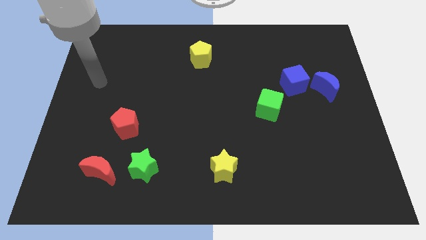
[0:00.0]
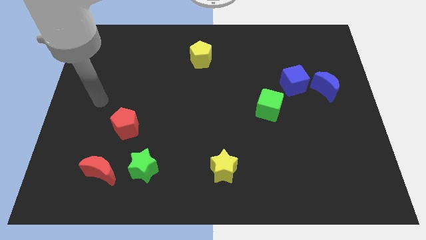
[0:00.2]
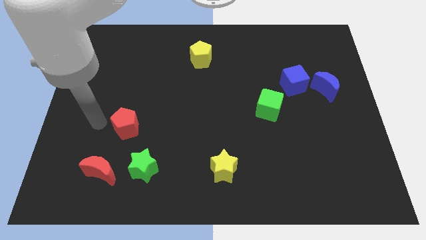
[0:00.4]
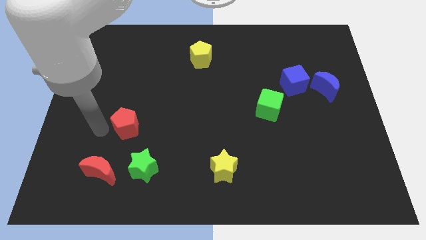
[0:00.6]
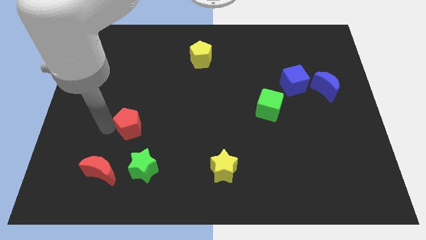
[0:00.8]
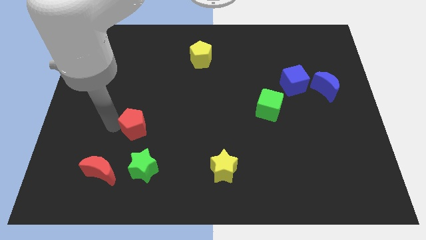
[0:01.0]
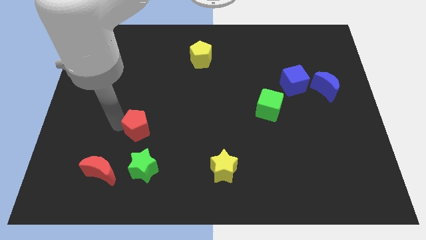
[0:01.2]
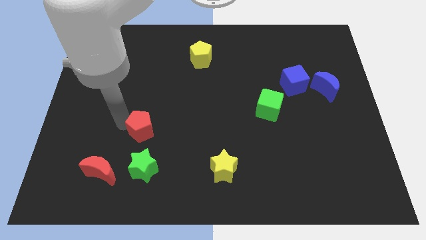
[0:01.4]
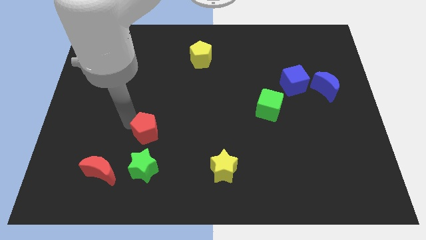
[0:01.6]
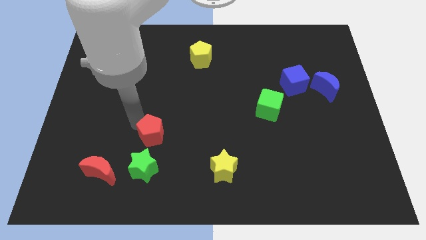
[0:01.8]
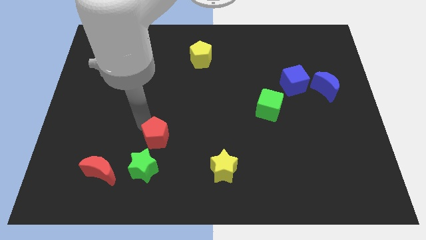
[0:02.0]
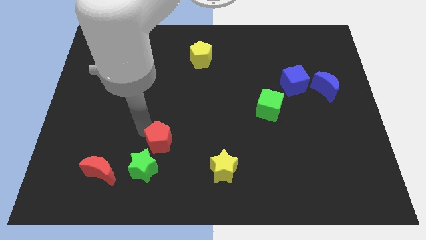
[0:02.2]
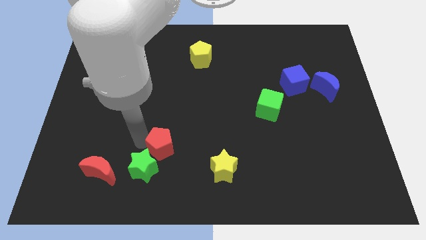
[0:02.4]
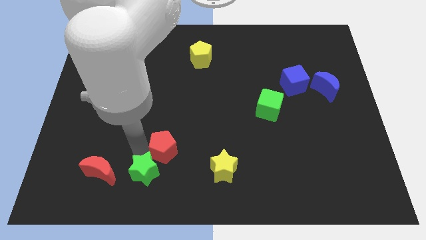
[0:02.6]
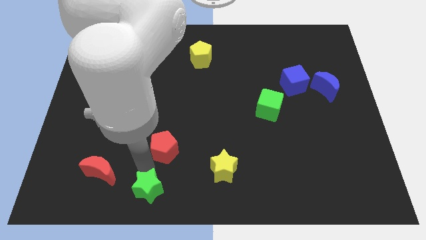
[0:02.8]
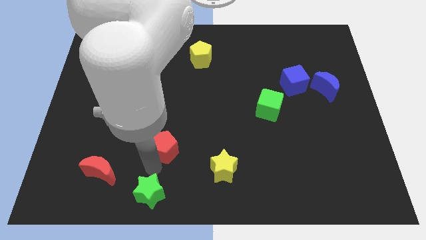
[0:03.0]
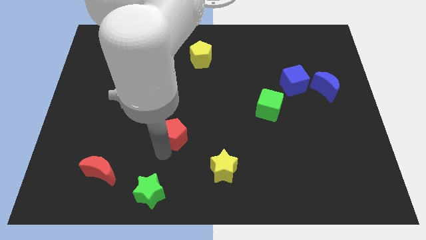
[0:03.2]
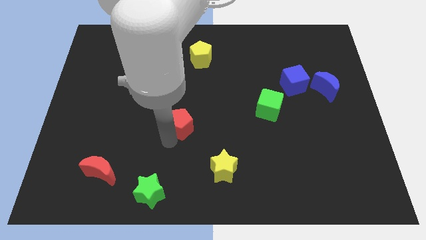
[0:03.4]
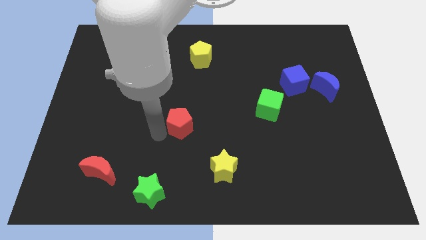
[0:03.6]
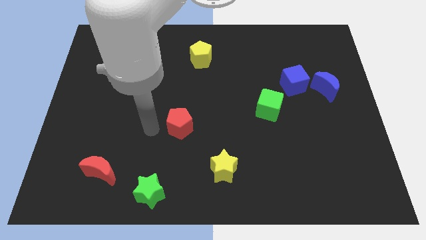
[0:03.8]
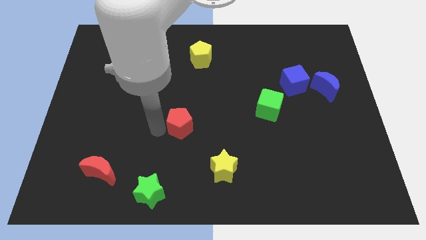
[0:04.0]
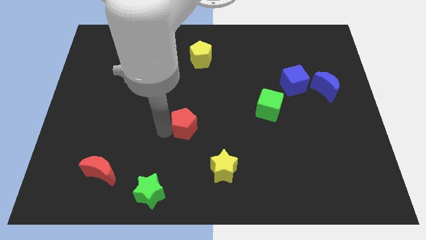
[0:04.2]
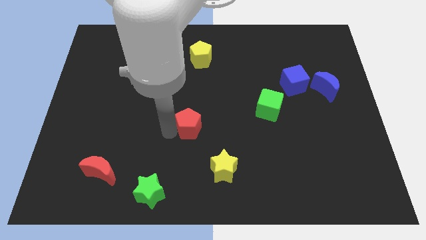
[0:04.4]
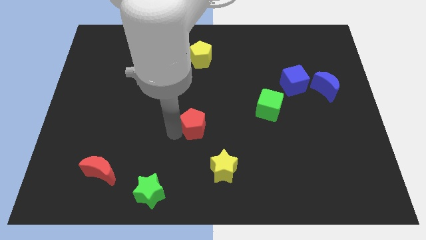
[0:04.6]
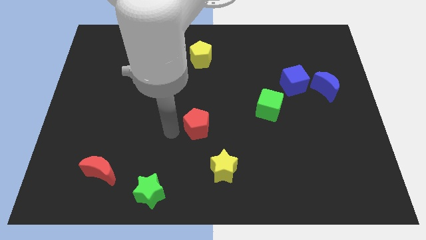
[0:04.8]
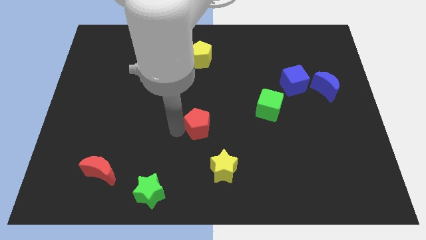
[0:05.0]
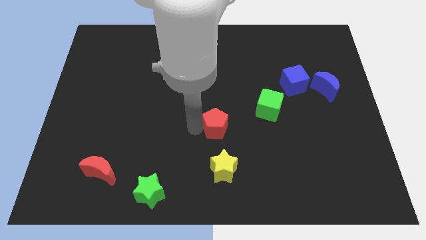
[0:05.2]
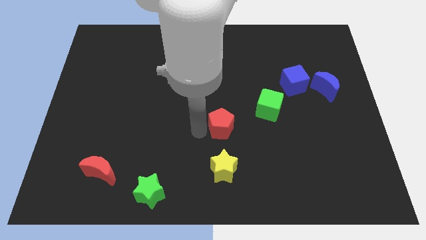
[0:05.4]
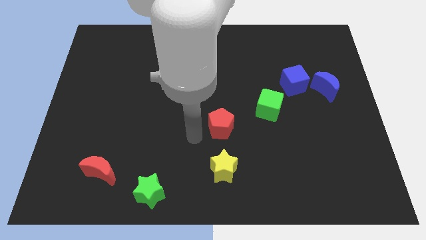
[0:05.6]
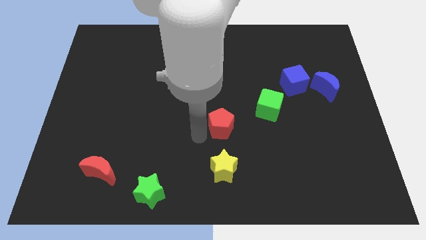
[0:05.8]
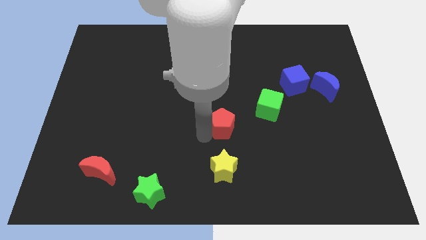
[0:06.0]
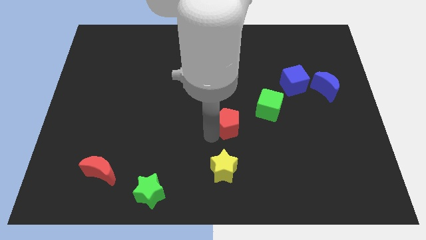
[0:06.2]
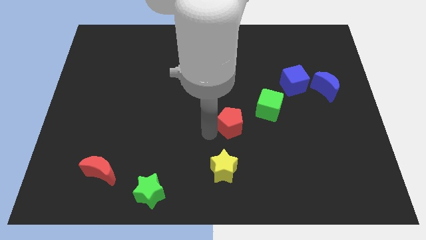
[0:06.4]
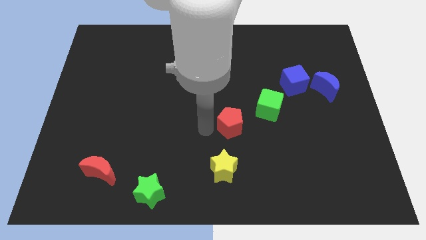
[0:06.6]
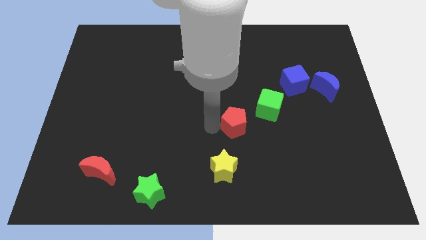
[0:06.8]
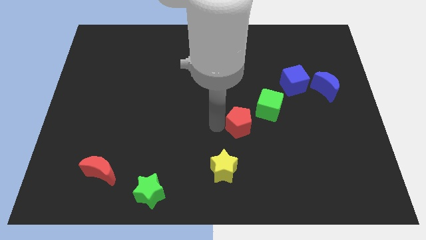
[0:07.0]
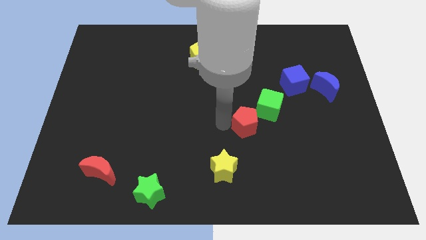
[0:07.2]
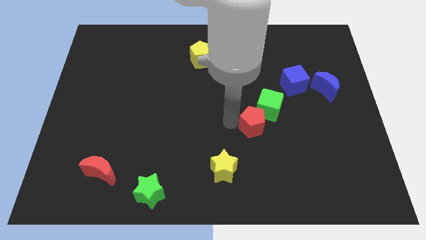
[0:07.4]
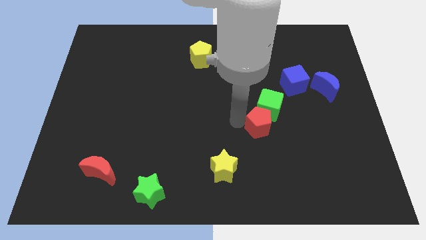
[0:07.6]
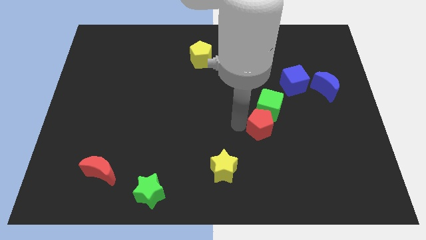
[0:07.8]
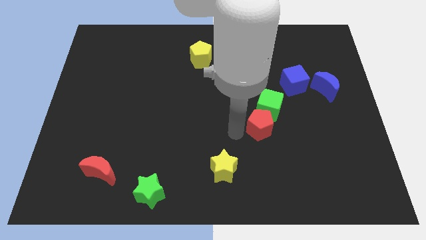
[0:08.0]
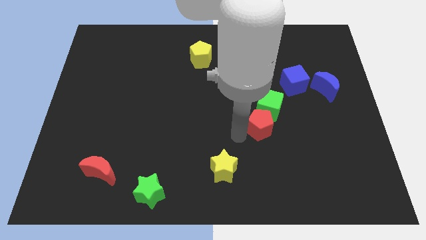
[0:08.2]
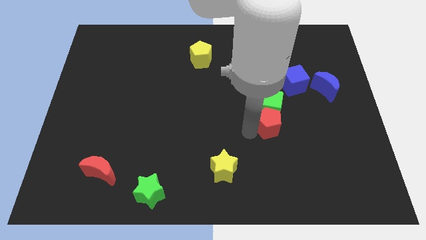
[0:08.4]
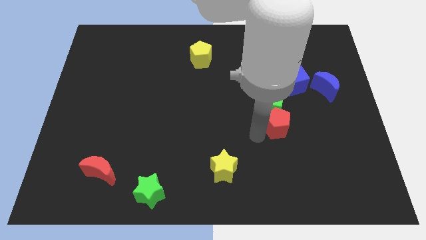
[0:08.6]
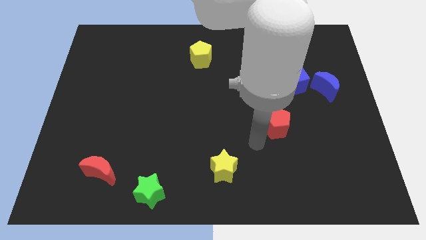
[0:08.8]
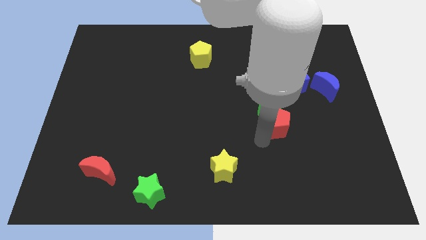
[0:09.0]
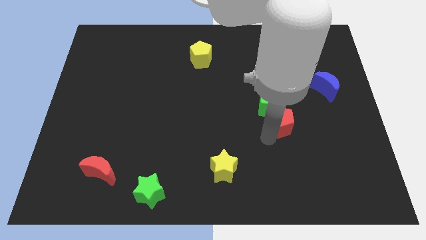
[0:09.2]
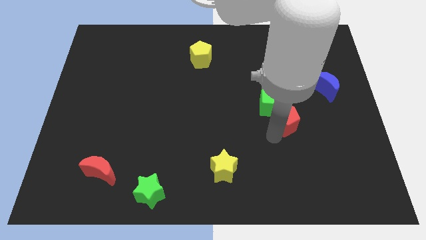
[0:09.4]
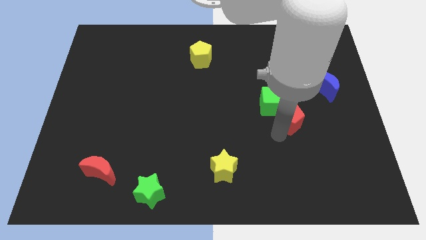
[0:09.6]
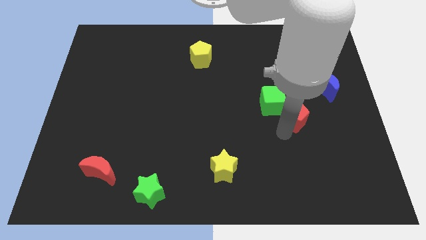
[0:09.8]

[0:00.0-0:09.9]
move the red pentagon diagonally down and to the left of the blue moon

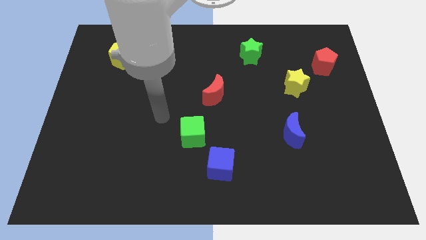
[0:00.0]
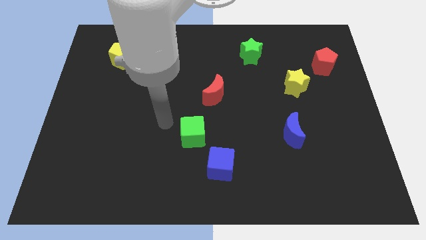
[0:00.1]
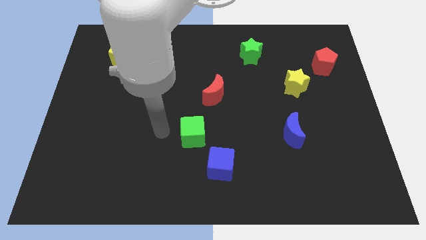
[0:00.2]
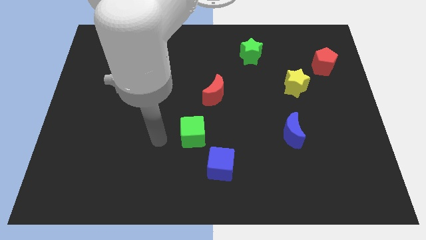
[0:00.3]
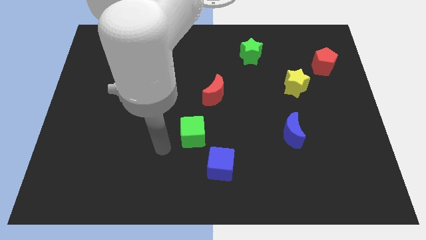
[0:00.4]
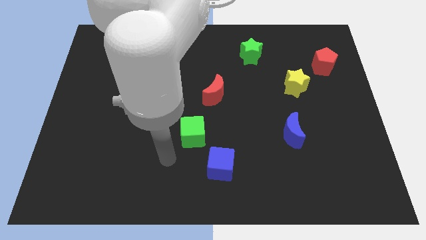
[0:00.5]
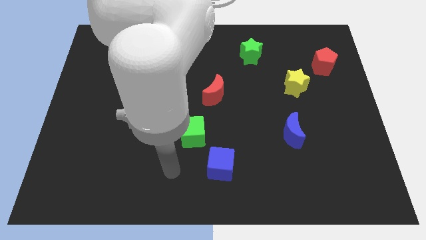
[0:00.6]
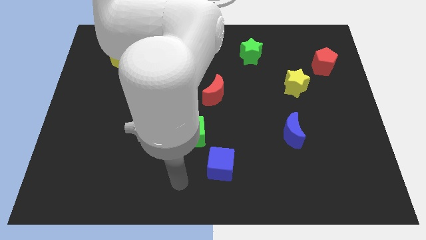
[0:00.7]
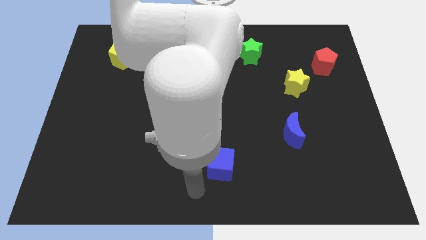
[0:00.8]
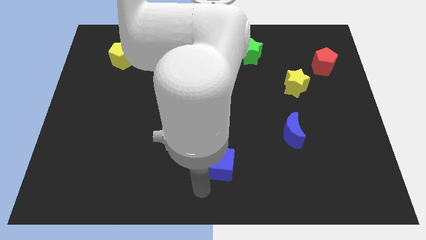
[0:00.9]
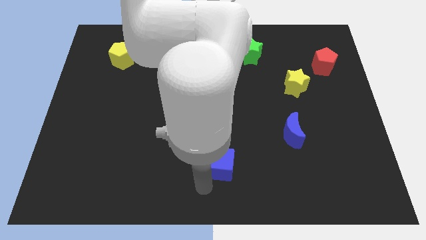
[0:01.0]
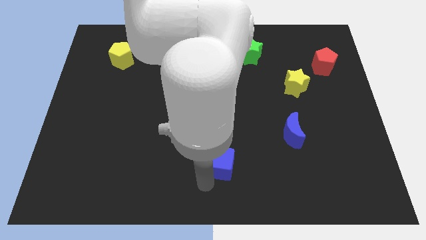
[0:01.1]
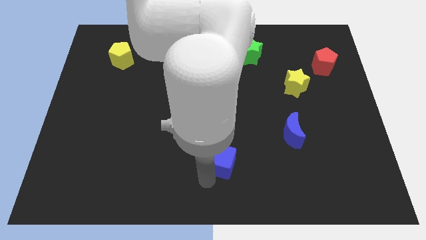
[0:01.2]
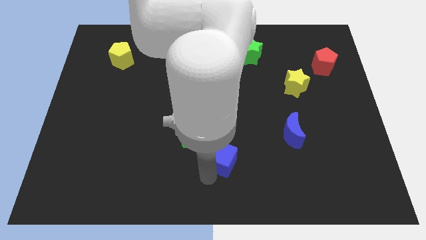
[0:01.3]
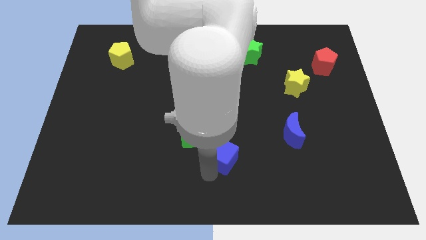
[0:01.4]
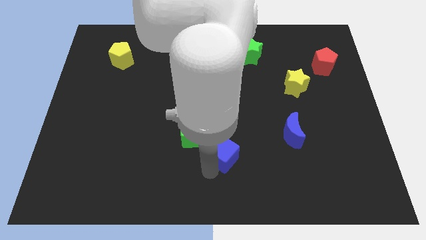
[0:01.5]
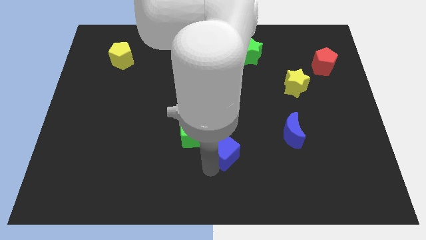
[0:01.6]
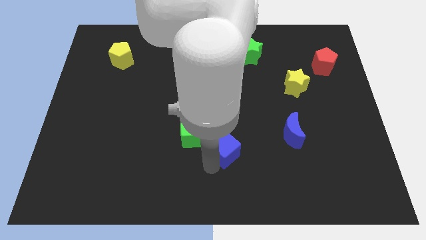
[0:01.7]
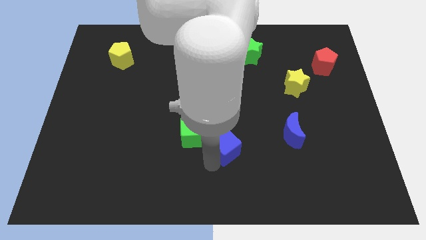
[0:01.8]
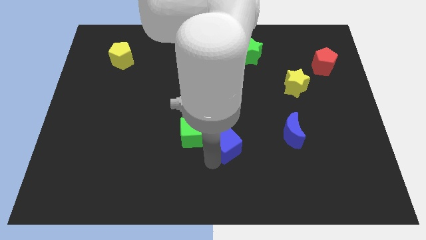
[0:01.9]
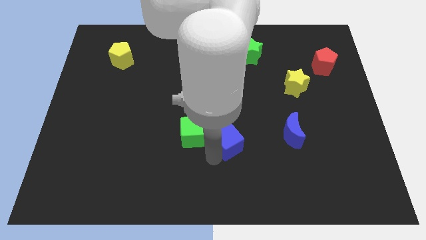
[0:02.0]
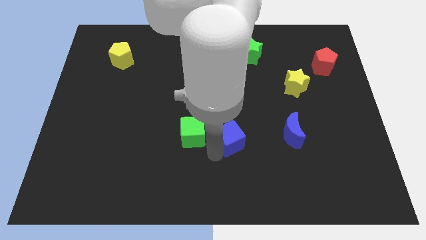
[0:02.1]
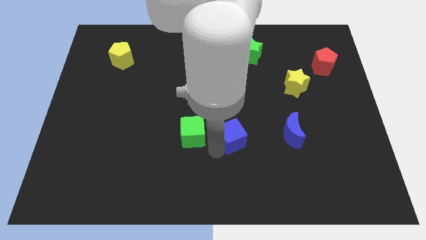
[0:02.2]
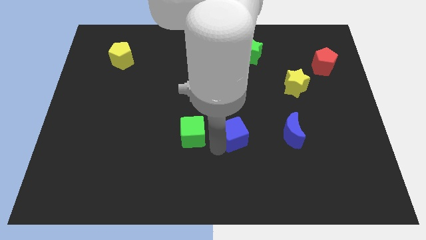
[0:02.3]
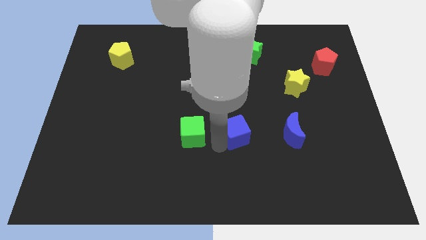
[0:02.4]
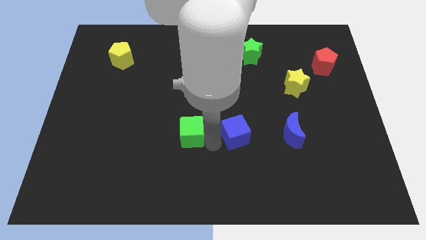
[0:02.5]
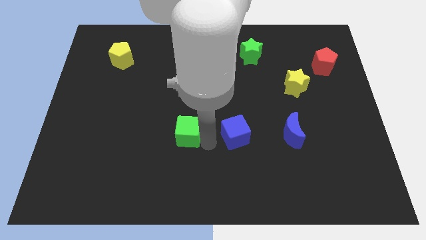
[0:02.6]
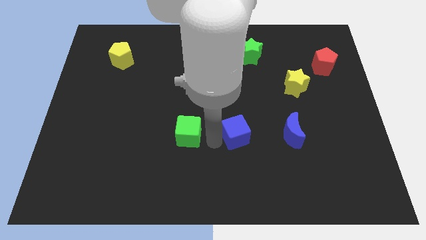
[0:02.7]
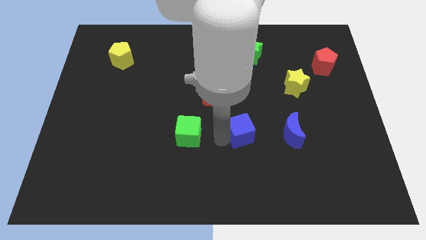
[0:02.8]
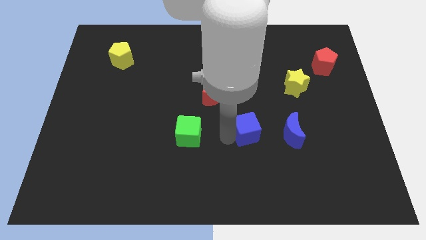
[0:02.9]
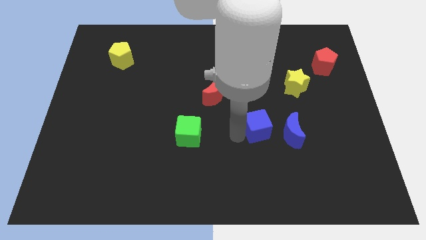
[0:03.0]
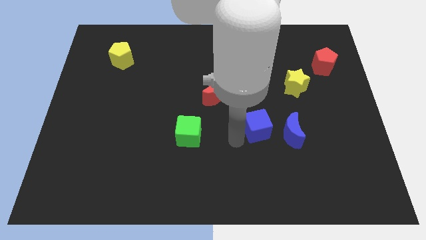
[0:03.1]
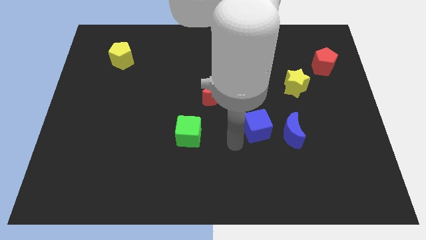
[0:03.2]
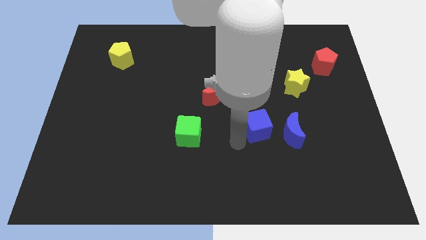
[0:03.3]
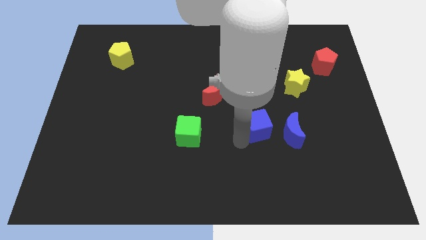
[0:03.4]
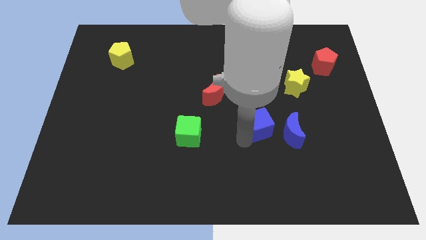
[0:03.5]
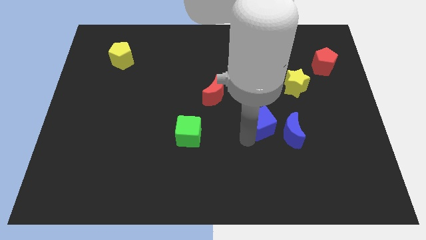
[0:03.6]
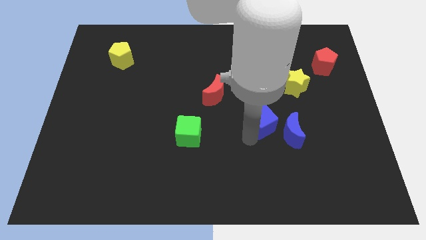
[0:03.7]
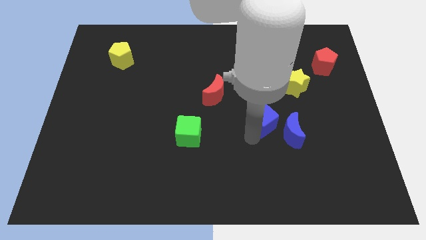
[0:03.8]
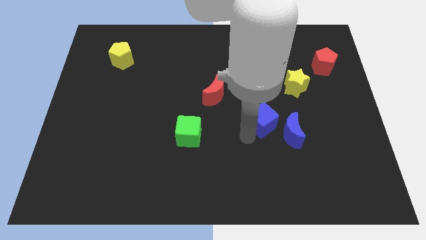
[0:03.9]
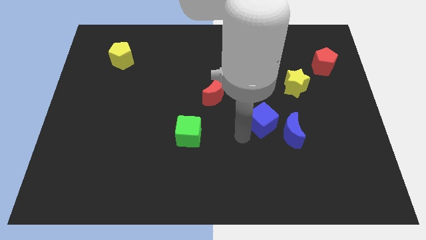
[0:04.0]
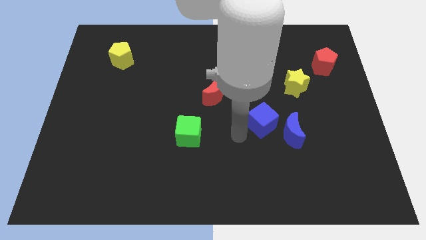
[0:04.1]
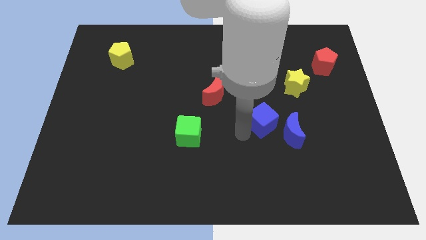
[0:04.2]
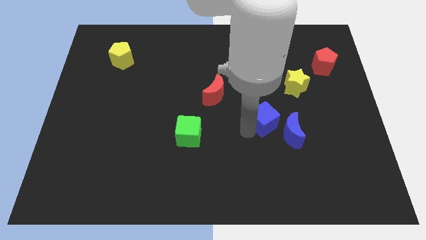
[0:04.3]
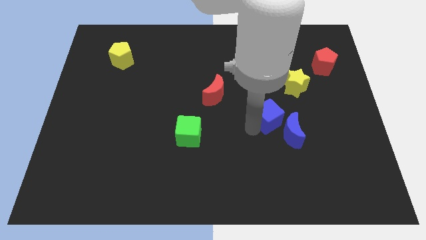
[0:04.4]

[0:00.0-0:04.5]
slide the blue cube diagonally down and to the left of the yellow star
